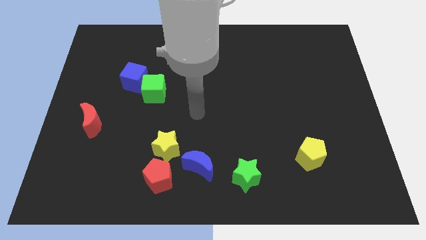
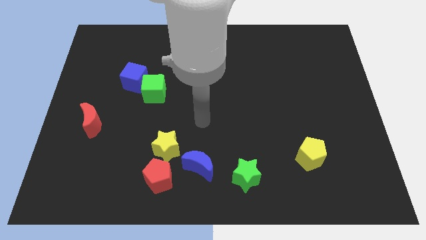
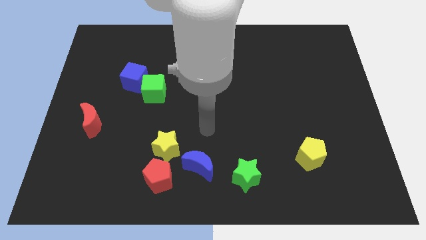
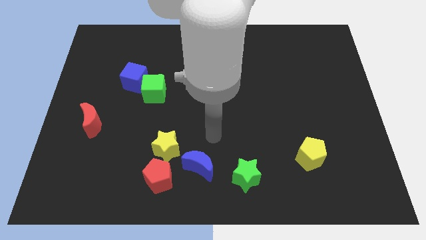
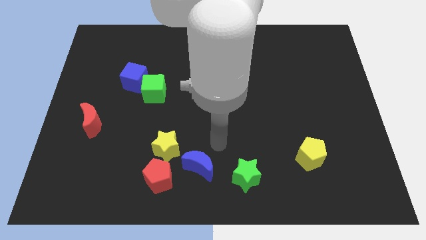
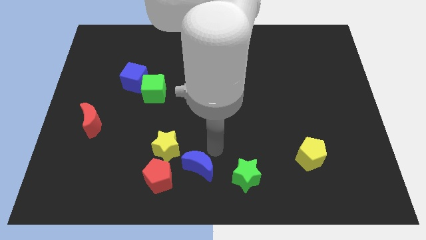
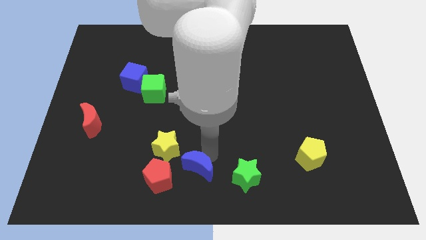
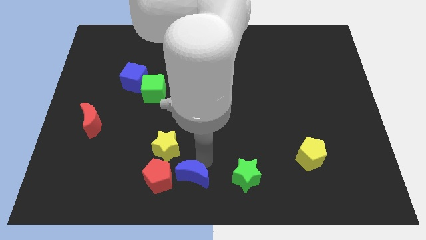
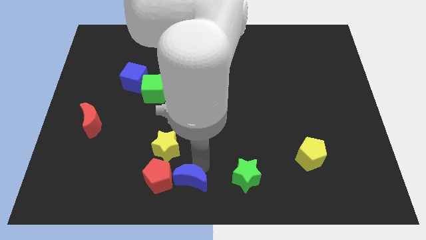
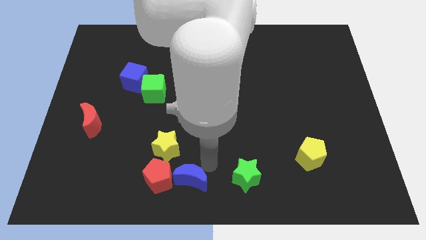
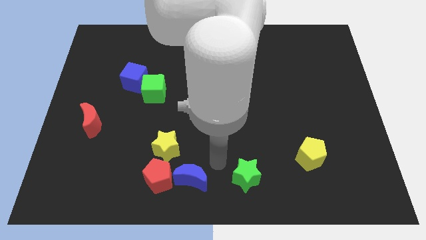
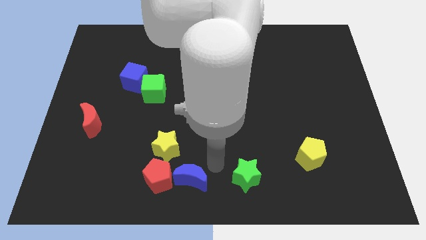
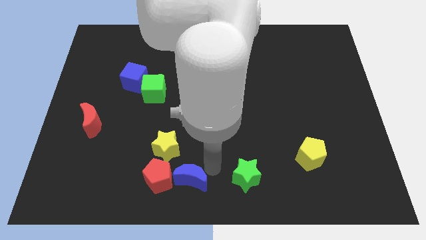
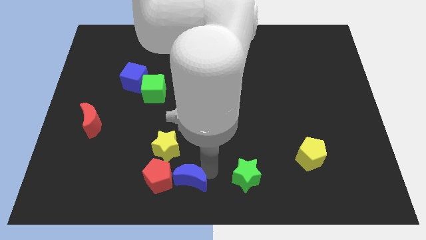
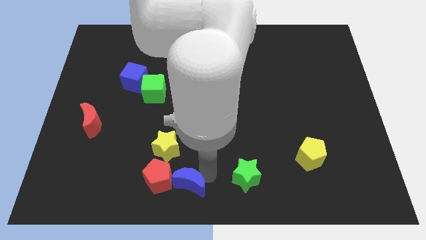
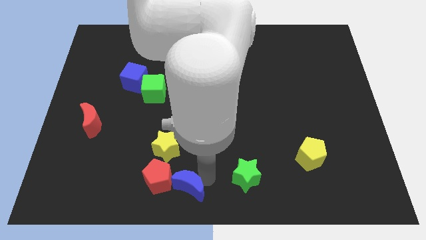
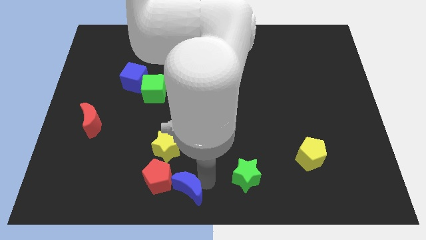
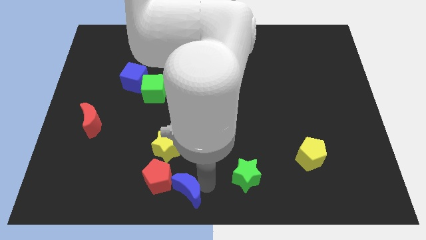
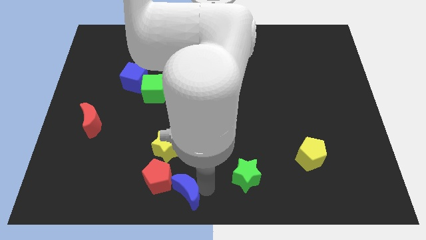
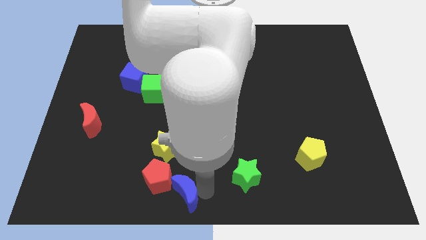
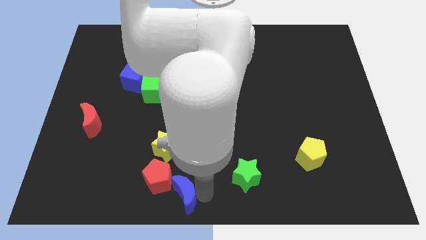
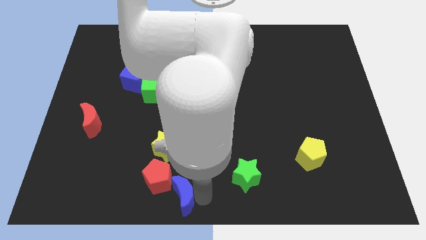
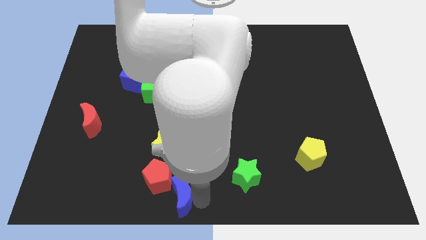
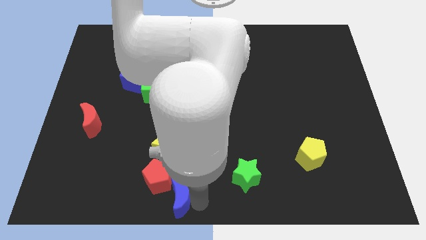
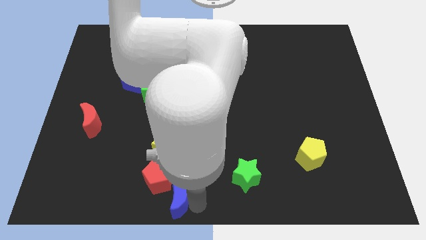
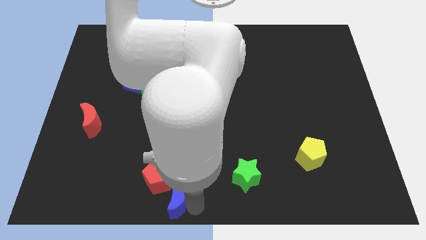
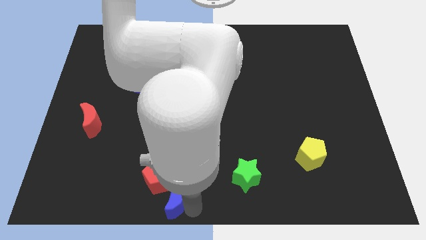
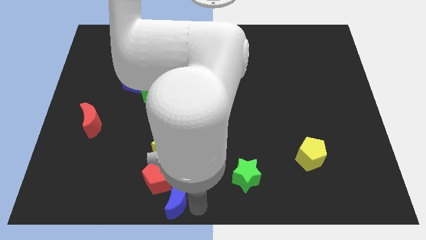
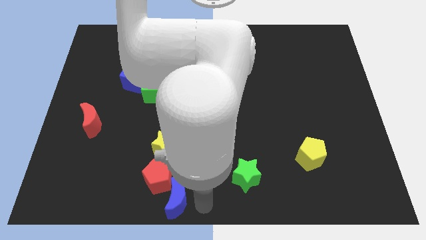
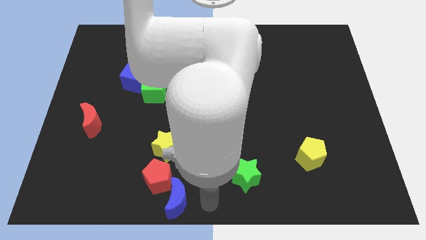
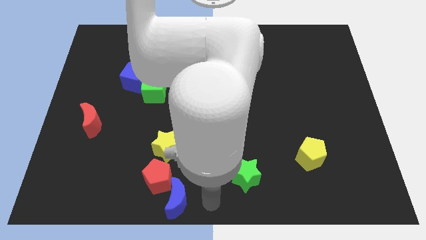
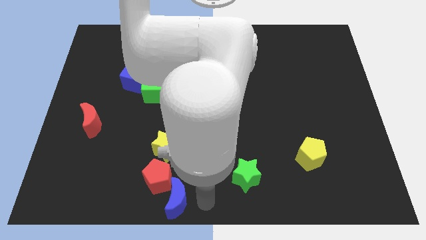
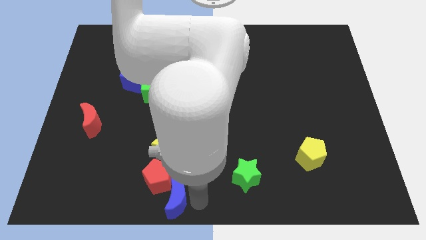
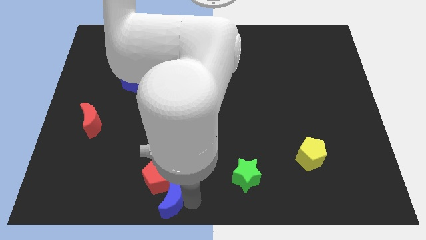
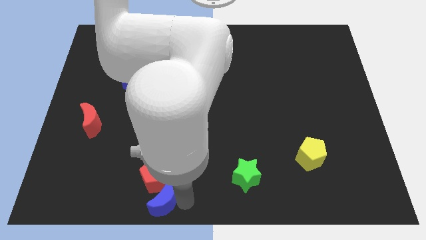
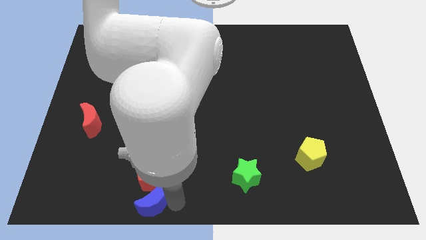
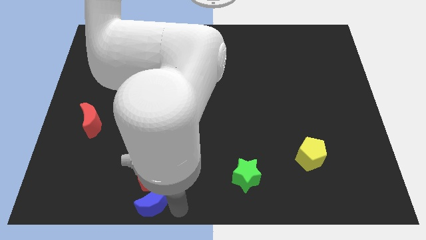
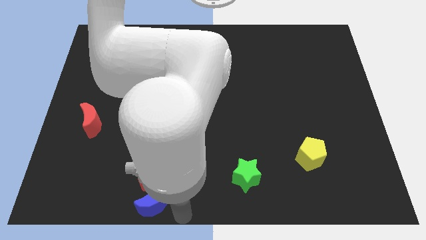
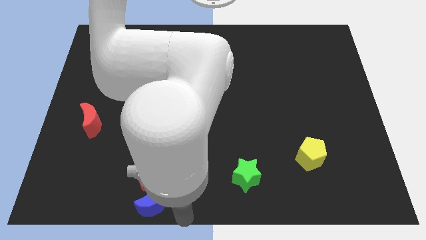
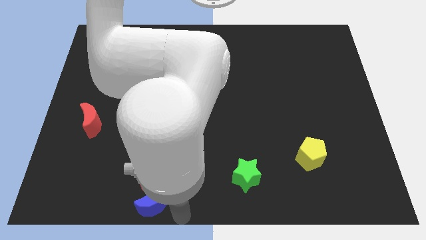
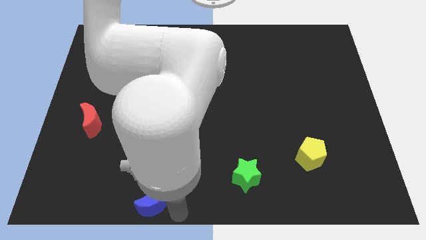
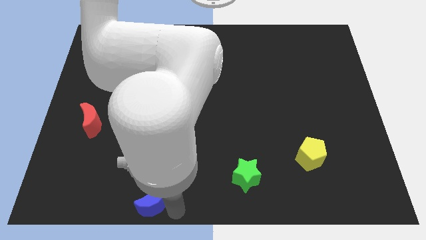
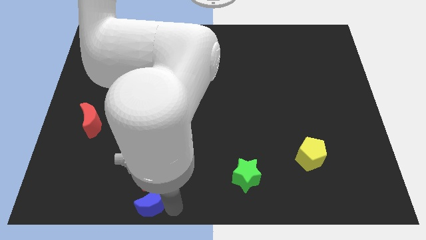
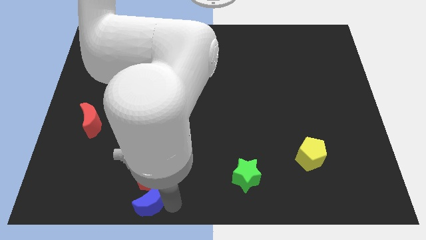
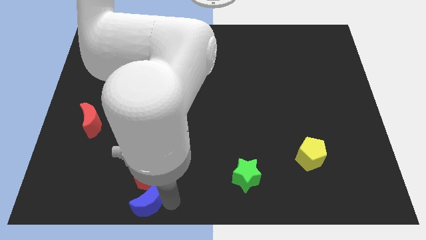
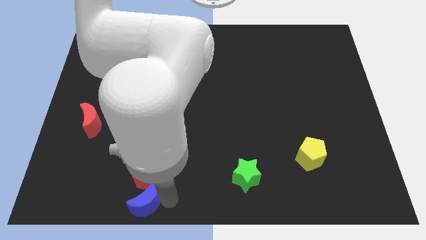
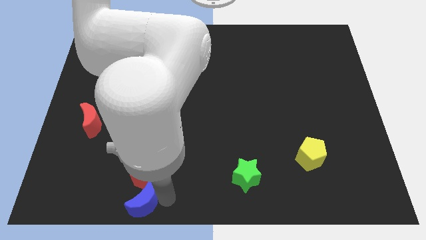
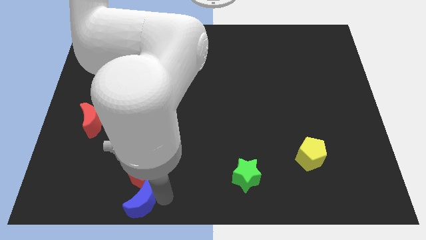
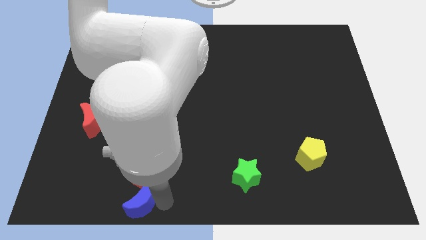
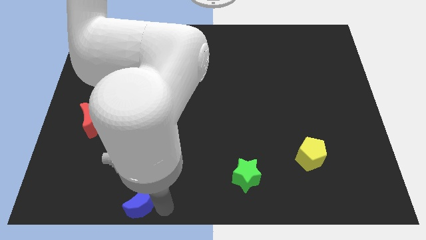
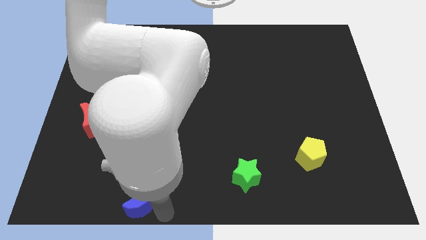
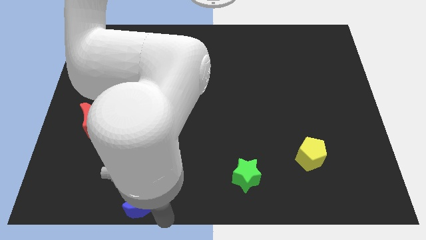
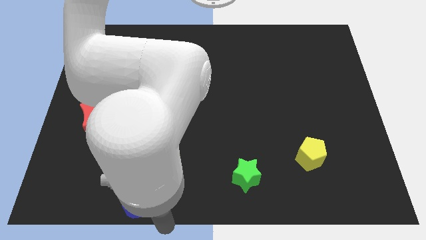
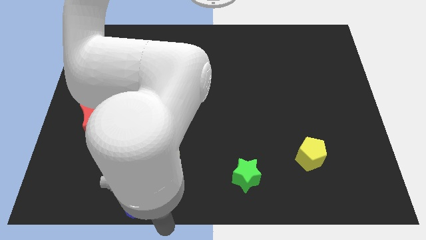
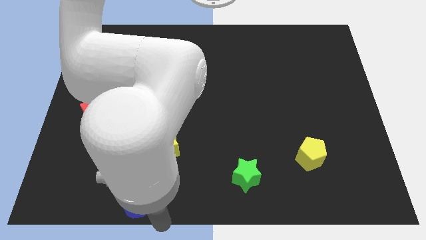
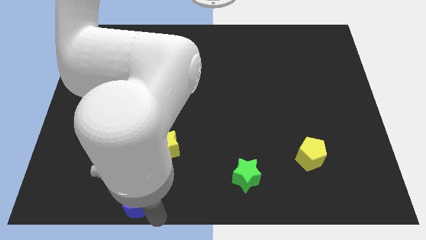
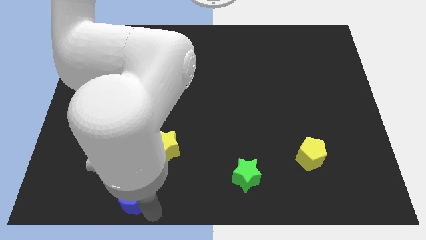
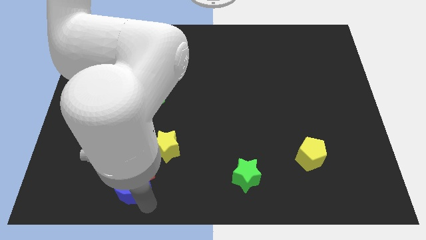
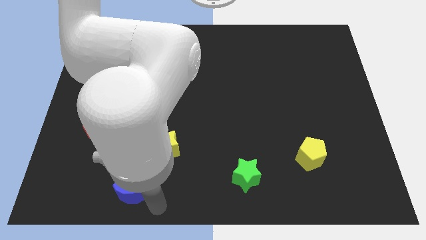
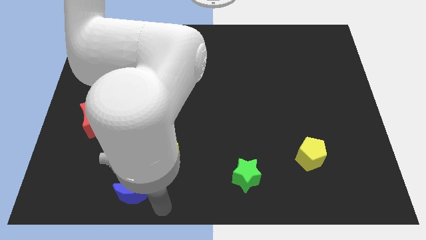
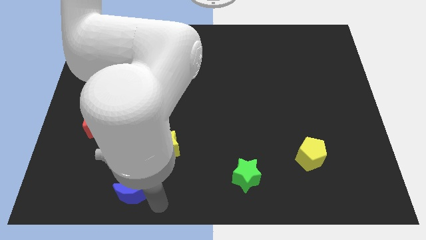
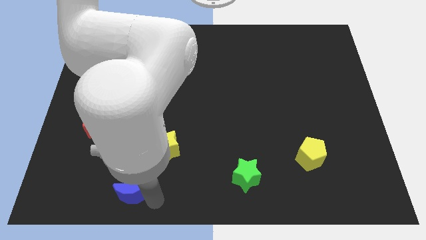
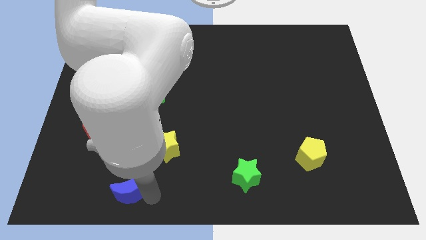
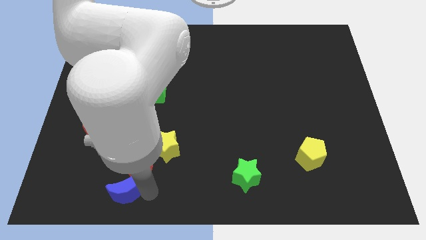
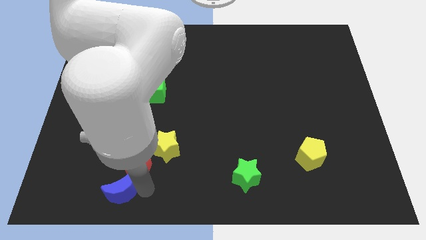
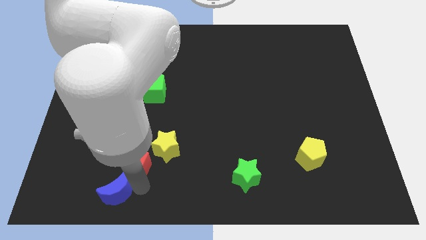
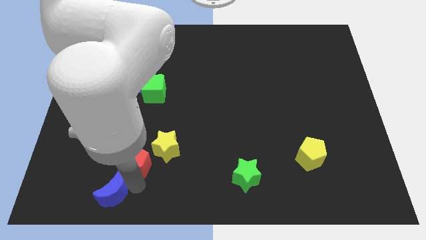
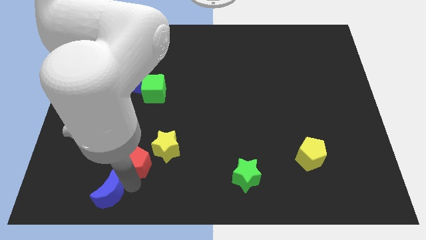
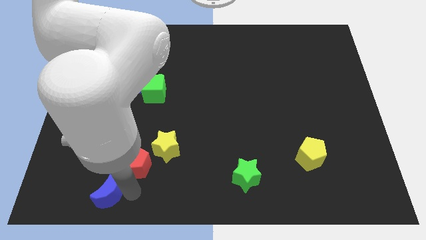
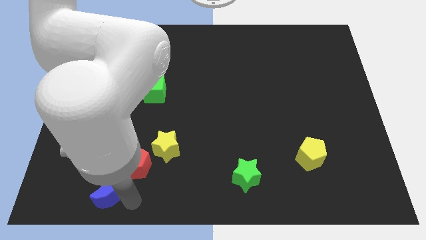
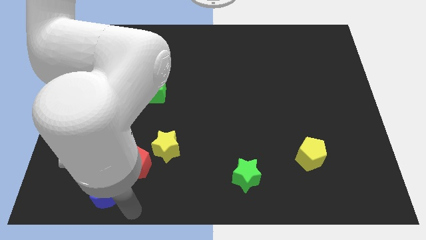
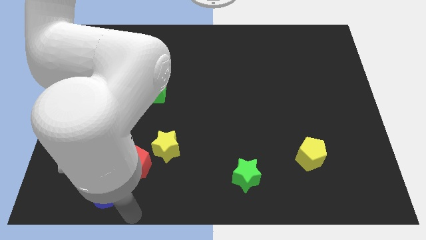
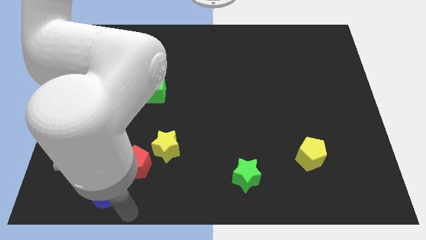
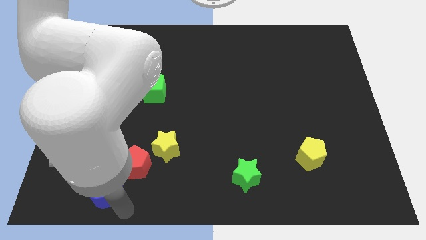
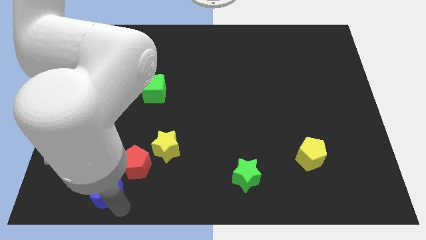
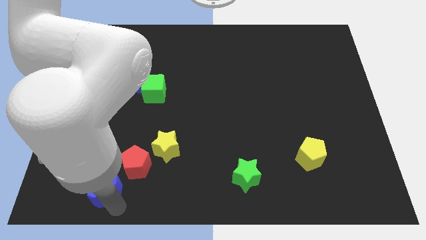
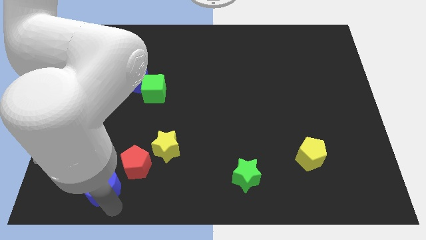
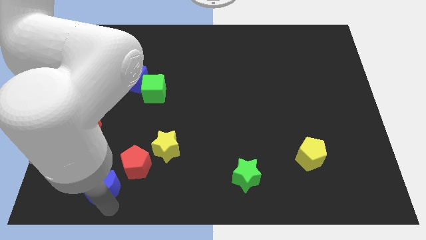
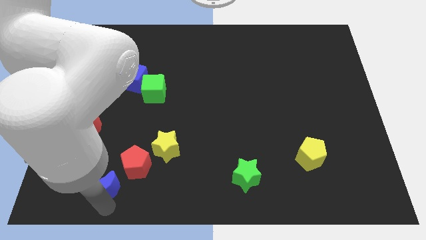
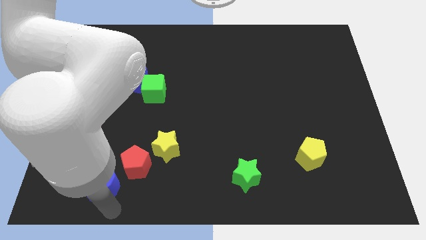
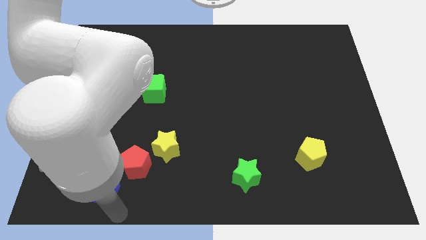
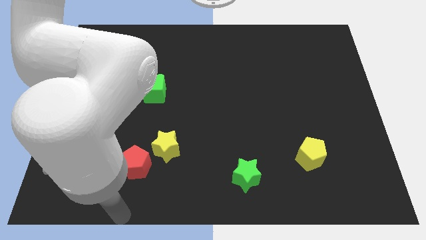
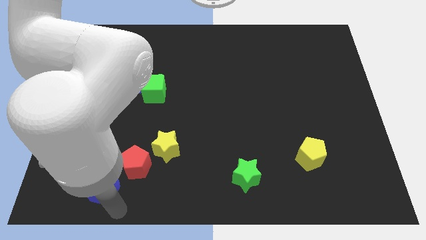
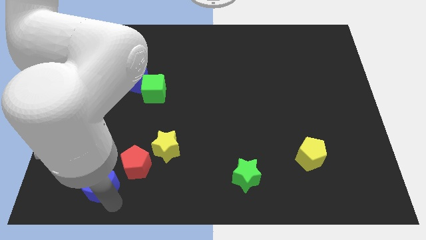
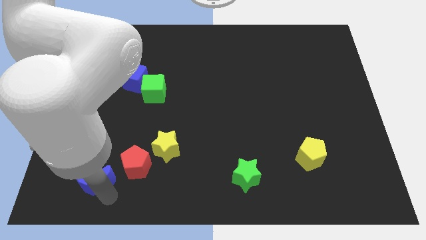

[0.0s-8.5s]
put the blue moon just left of the red pentagon
